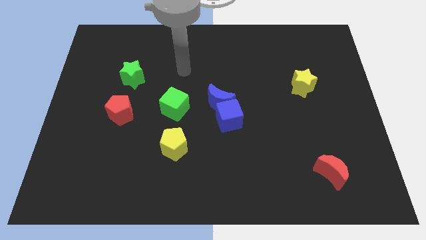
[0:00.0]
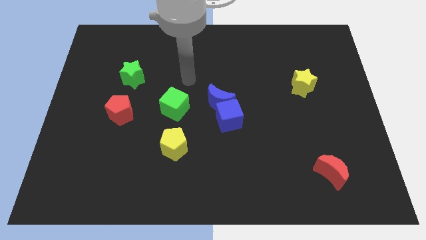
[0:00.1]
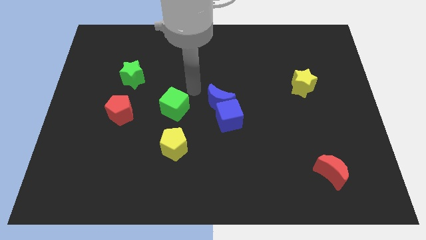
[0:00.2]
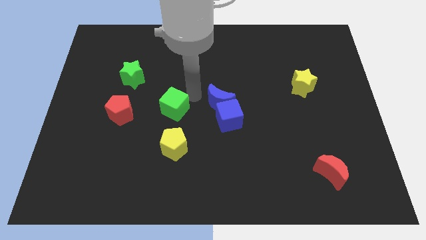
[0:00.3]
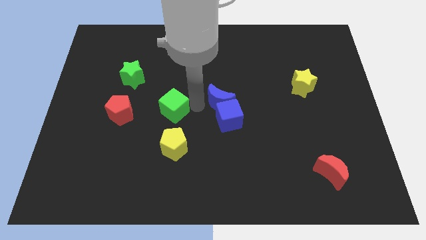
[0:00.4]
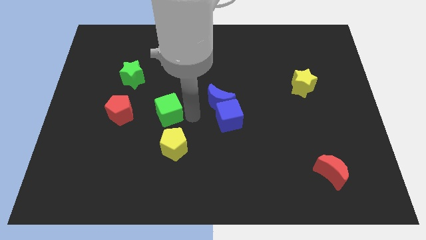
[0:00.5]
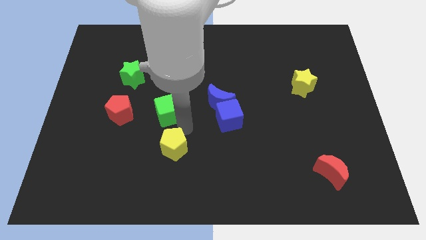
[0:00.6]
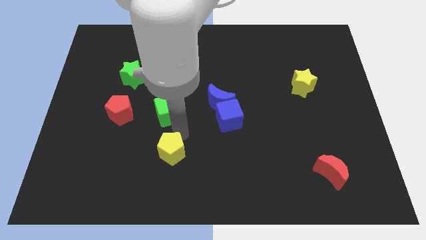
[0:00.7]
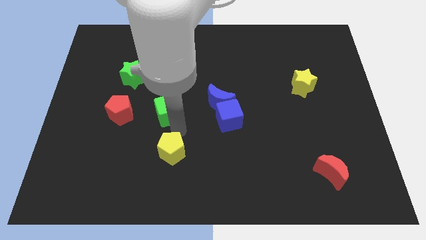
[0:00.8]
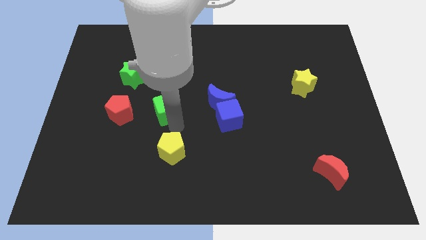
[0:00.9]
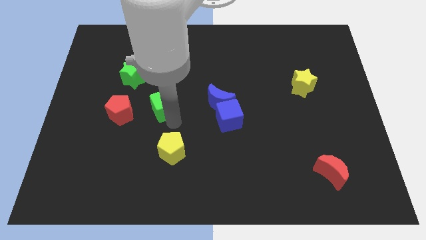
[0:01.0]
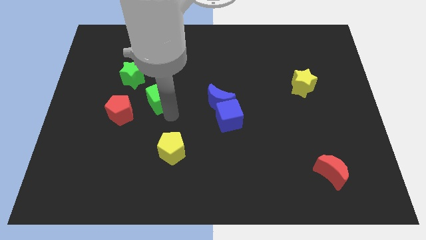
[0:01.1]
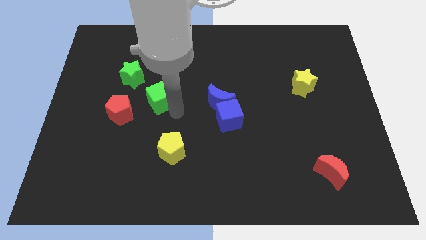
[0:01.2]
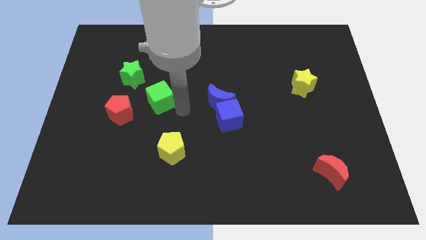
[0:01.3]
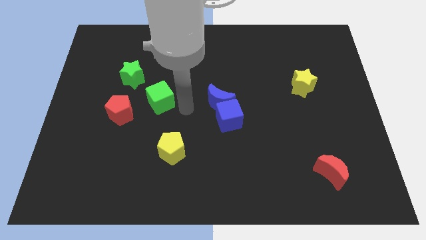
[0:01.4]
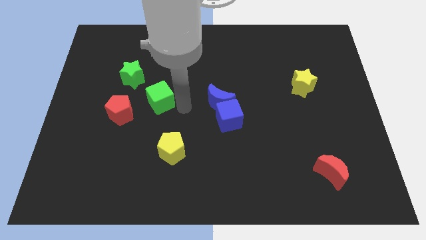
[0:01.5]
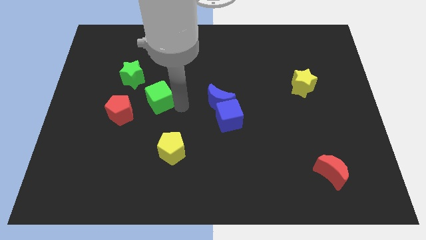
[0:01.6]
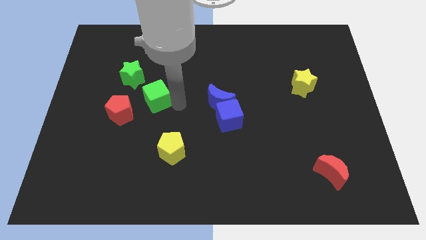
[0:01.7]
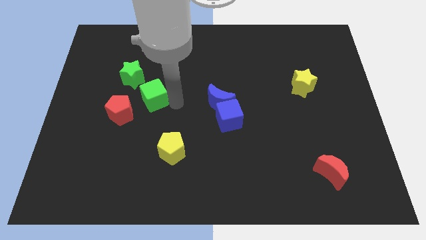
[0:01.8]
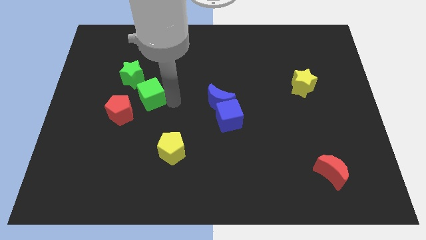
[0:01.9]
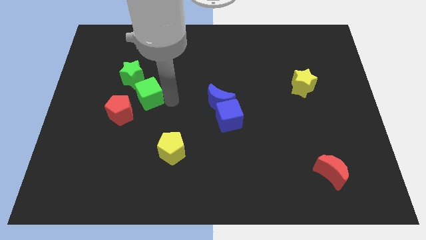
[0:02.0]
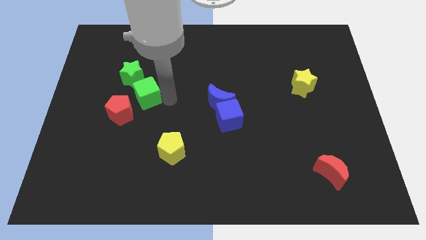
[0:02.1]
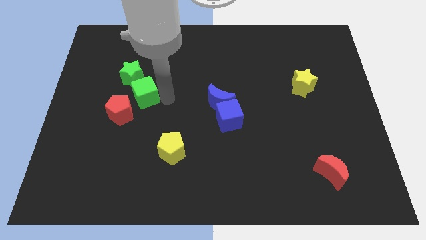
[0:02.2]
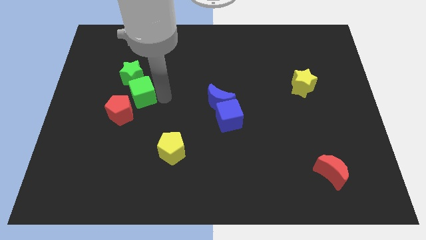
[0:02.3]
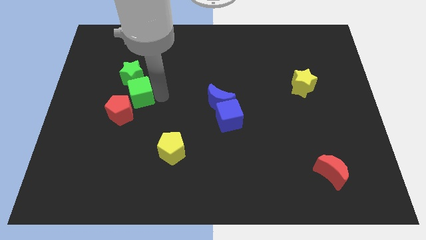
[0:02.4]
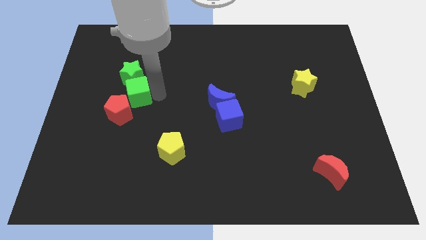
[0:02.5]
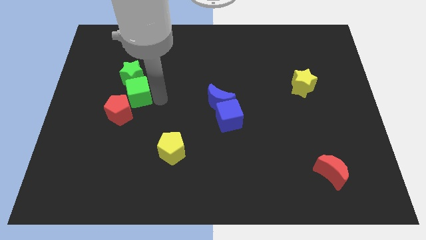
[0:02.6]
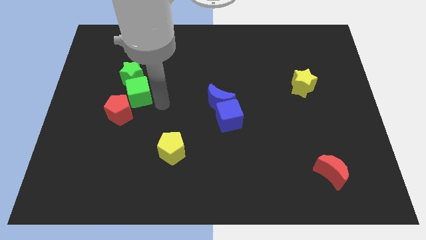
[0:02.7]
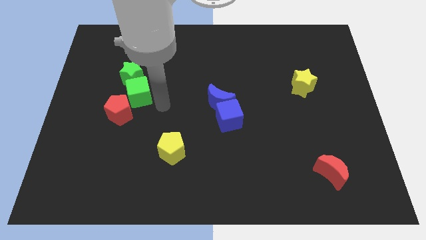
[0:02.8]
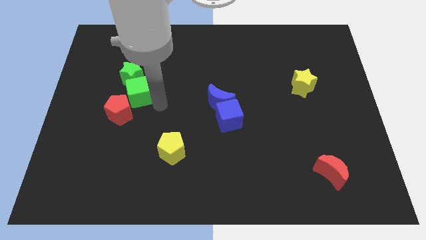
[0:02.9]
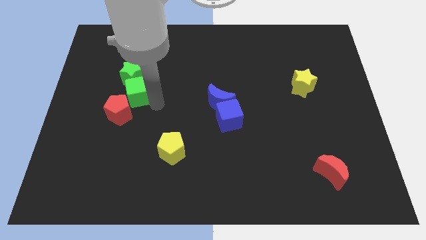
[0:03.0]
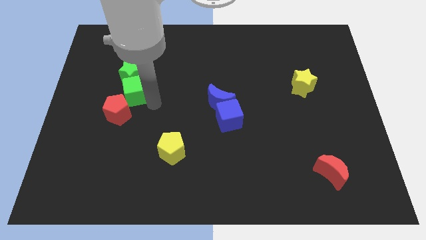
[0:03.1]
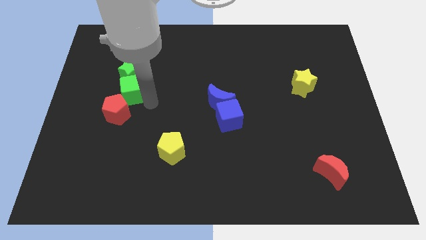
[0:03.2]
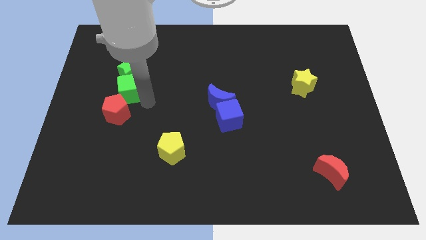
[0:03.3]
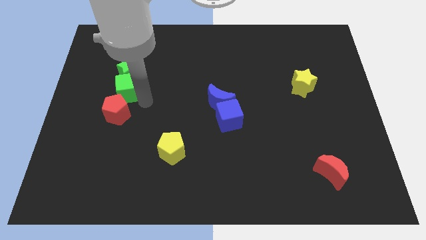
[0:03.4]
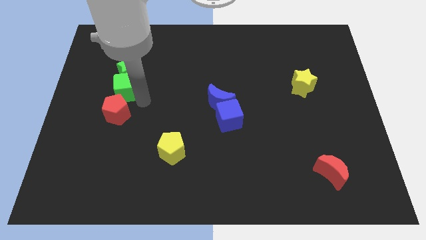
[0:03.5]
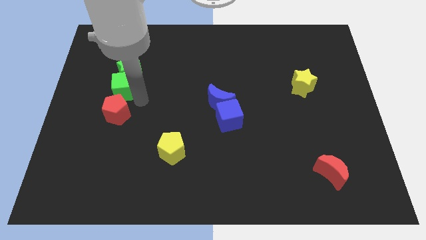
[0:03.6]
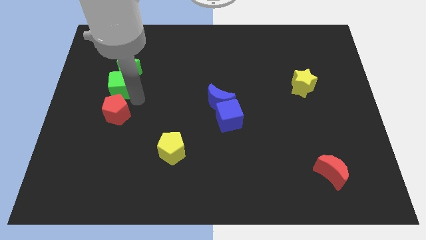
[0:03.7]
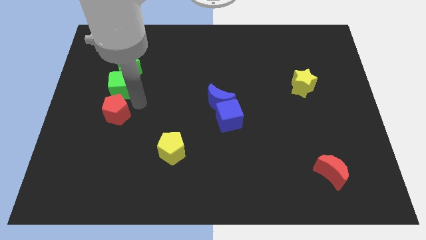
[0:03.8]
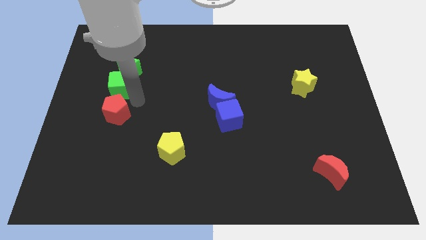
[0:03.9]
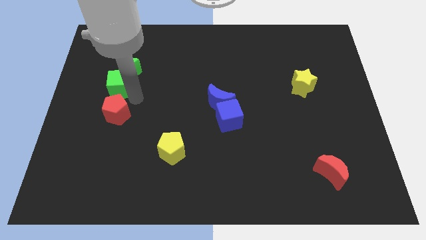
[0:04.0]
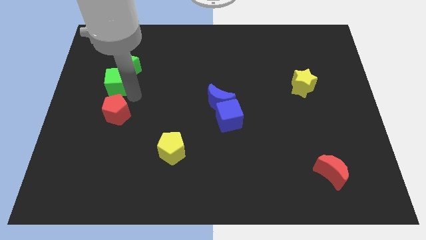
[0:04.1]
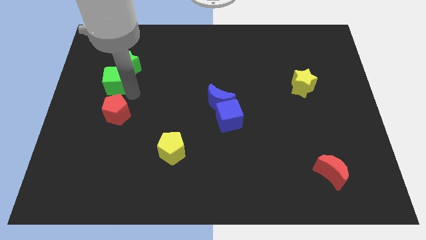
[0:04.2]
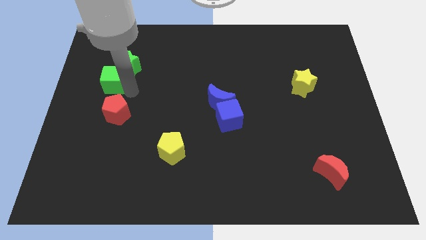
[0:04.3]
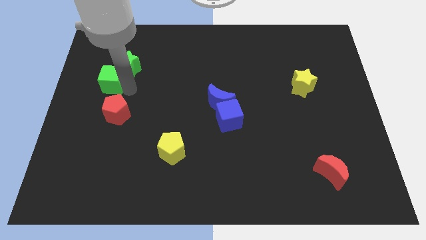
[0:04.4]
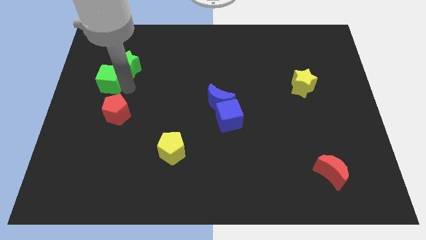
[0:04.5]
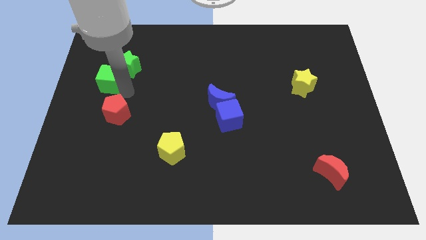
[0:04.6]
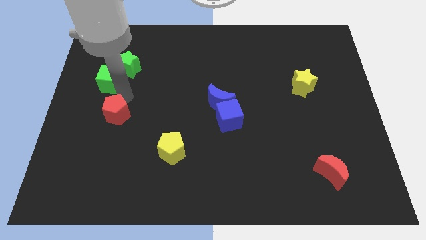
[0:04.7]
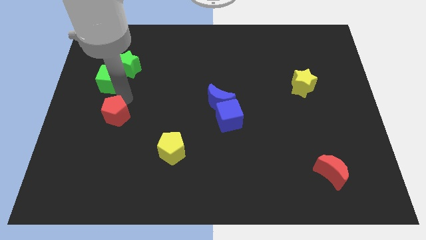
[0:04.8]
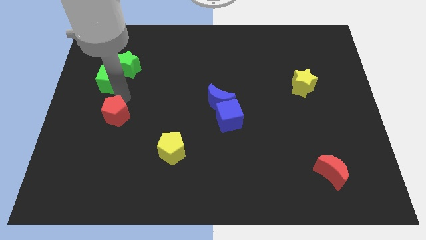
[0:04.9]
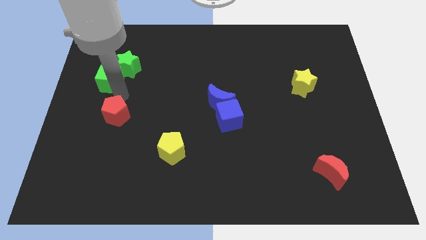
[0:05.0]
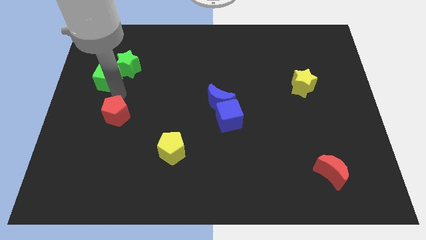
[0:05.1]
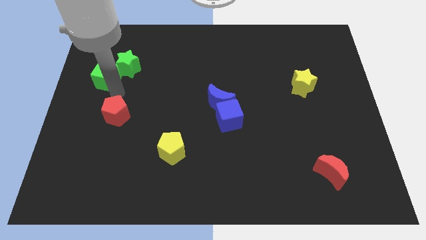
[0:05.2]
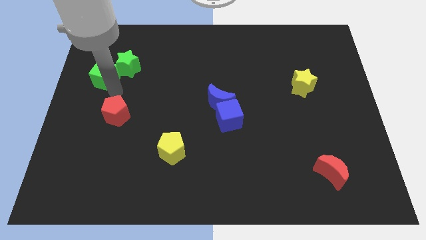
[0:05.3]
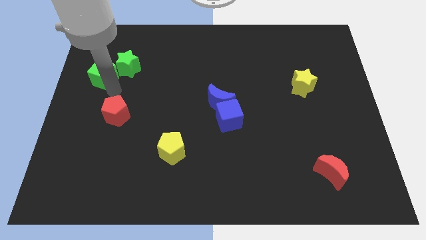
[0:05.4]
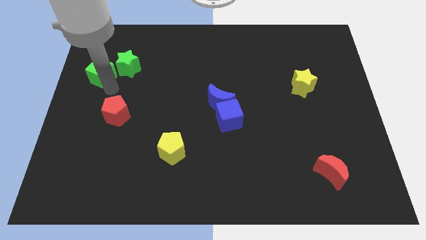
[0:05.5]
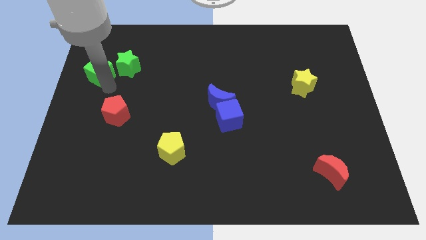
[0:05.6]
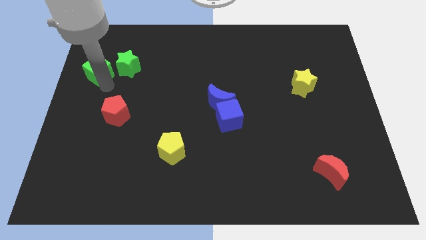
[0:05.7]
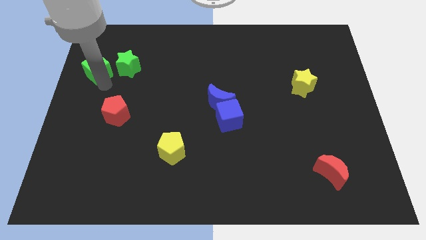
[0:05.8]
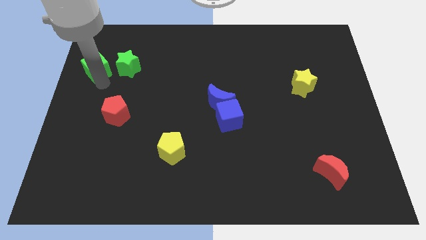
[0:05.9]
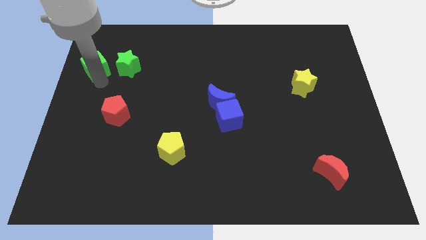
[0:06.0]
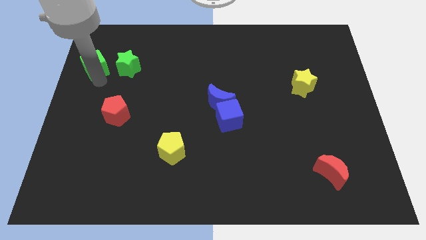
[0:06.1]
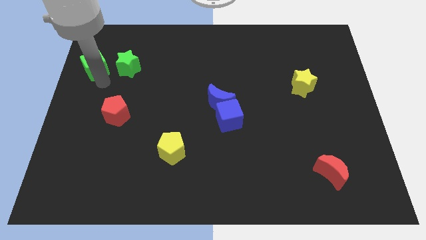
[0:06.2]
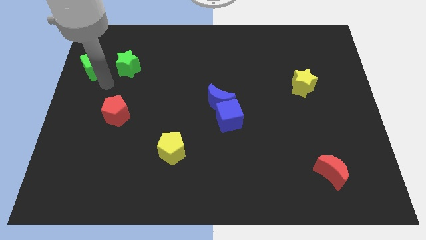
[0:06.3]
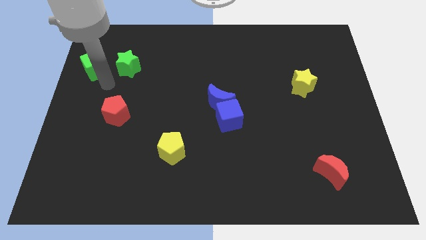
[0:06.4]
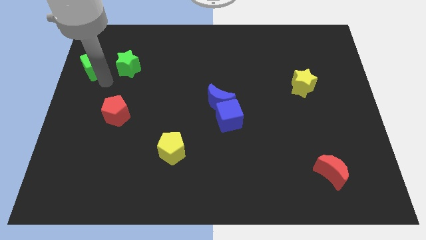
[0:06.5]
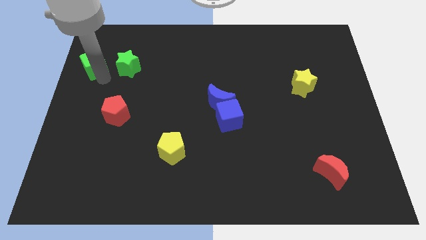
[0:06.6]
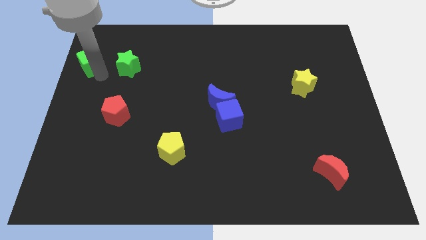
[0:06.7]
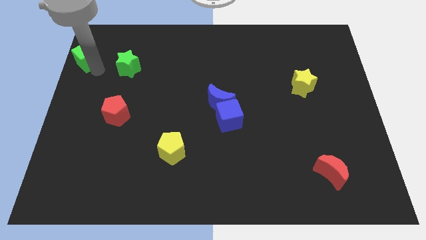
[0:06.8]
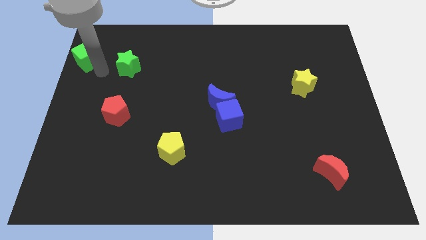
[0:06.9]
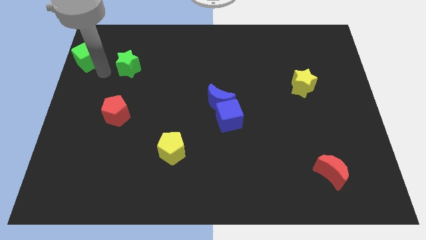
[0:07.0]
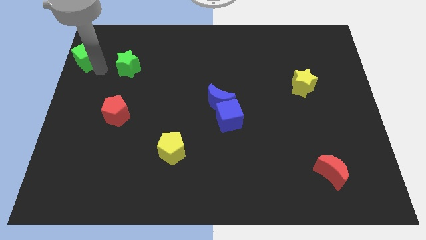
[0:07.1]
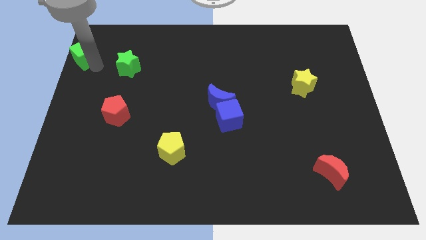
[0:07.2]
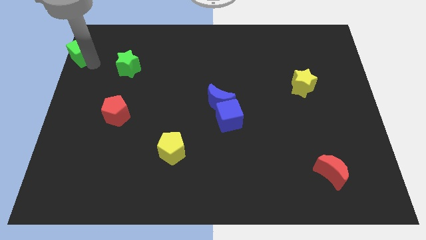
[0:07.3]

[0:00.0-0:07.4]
put the green cube to the upper left corner
